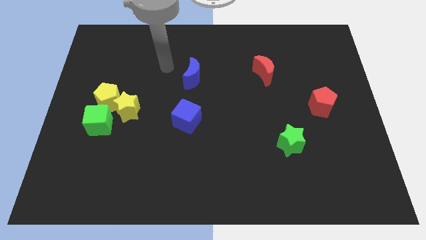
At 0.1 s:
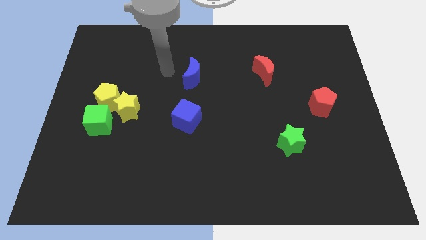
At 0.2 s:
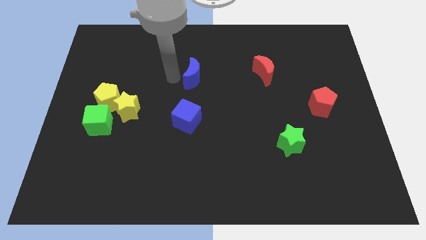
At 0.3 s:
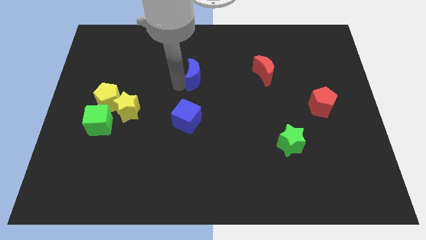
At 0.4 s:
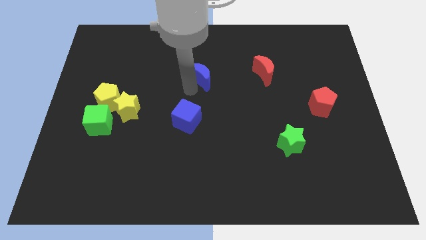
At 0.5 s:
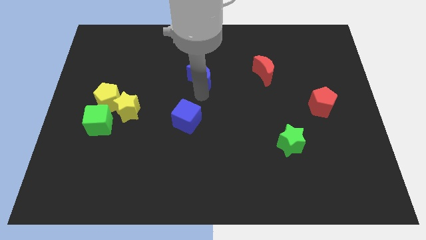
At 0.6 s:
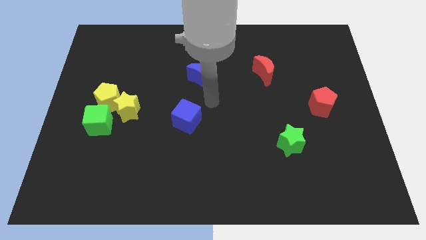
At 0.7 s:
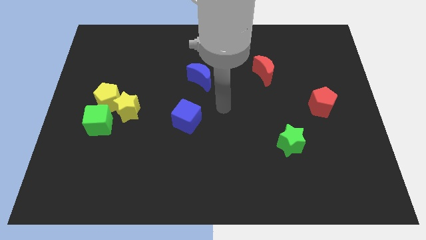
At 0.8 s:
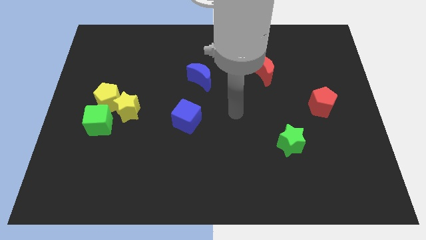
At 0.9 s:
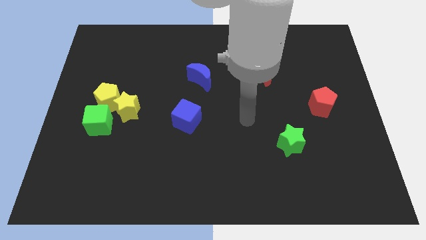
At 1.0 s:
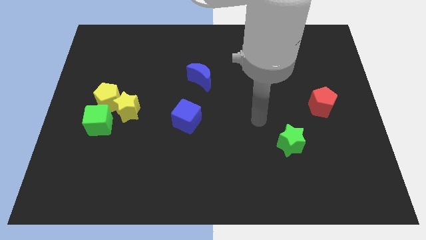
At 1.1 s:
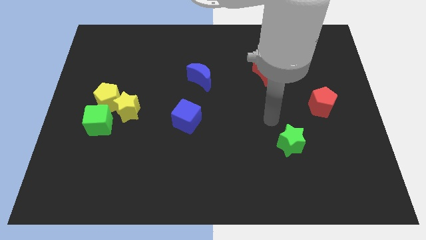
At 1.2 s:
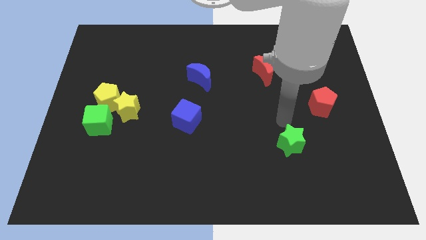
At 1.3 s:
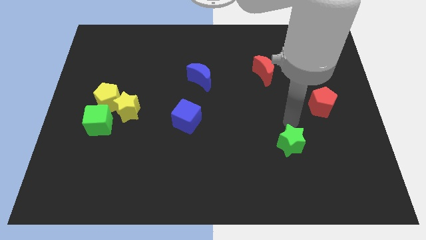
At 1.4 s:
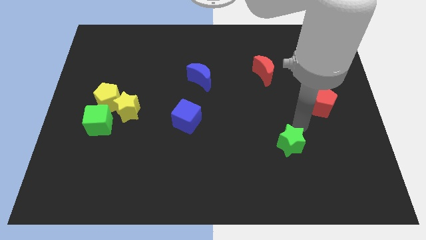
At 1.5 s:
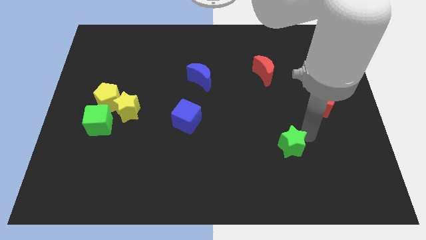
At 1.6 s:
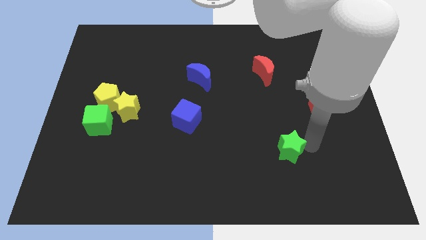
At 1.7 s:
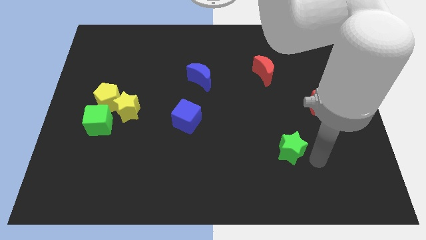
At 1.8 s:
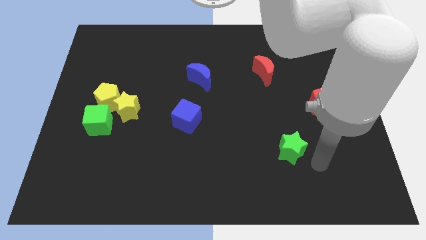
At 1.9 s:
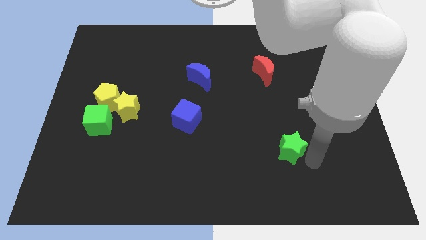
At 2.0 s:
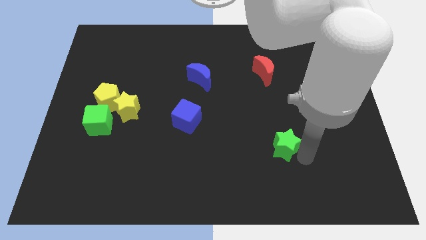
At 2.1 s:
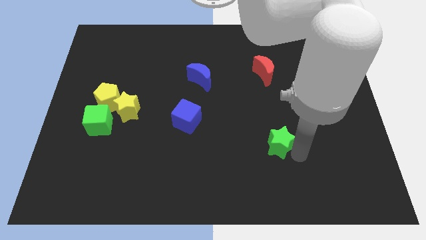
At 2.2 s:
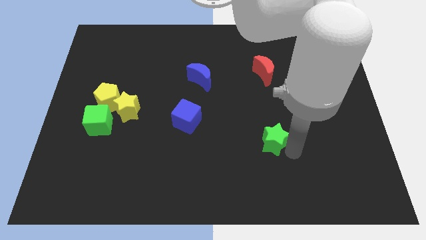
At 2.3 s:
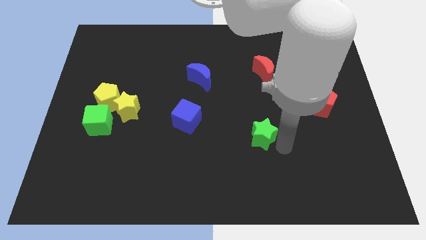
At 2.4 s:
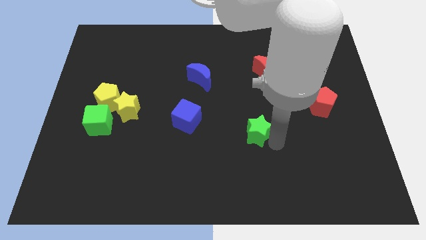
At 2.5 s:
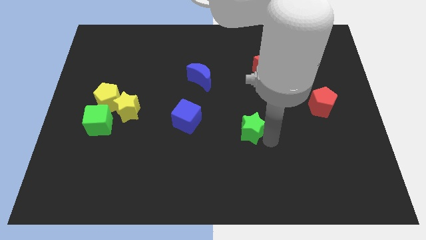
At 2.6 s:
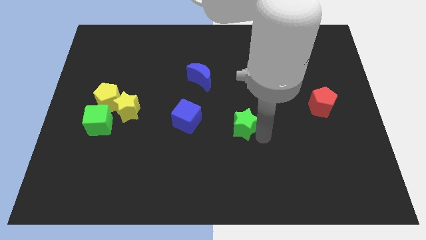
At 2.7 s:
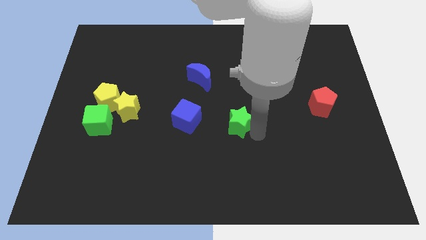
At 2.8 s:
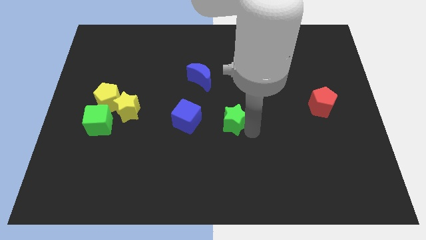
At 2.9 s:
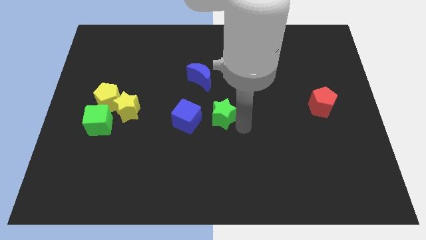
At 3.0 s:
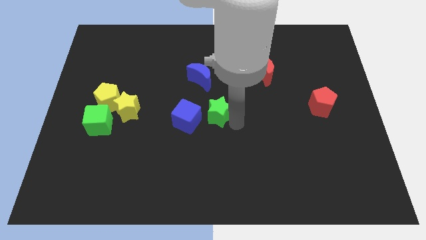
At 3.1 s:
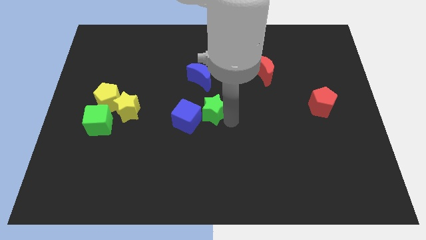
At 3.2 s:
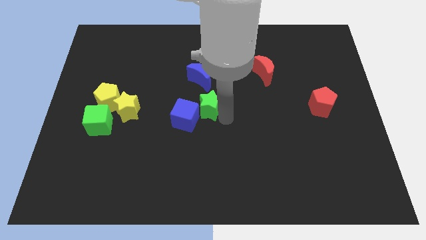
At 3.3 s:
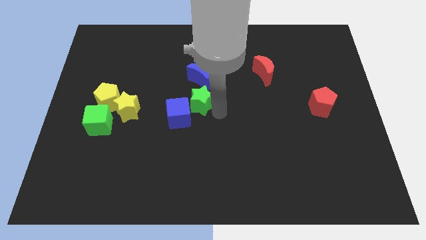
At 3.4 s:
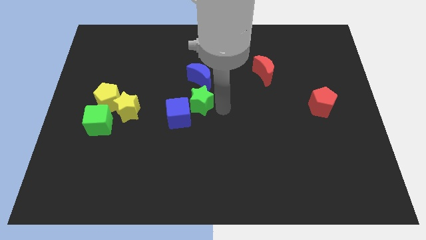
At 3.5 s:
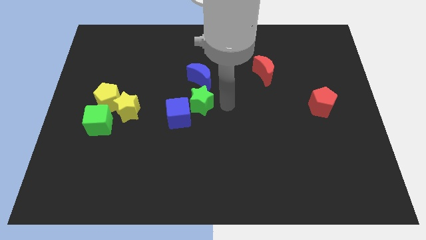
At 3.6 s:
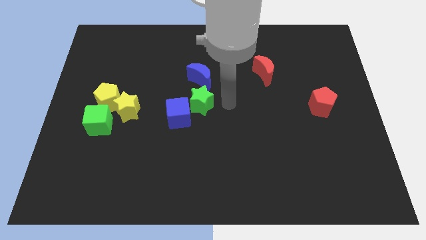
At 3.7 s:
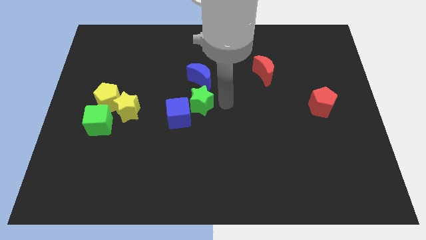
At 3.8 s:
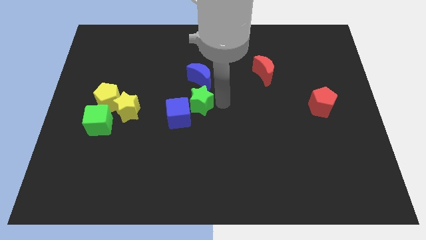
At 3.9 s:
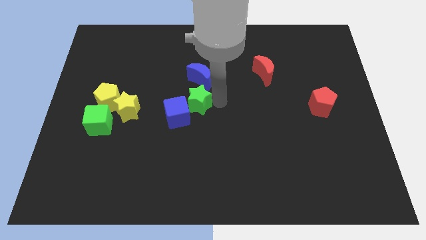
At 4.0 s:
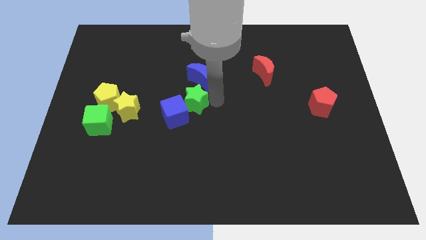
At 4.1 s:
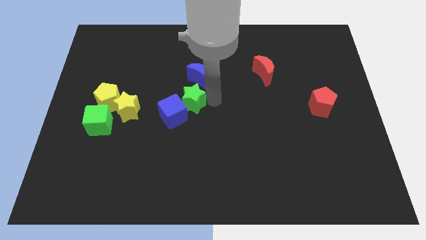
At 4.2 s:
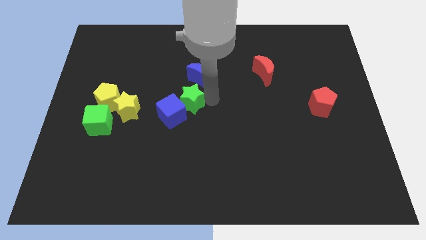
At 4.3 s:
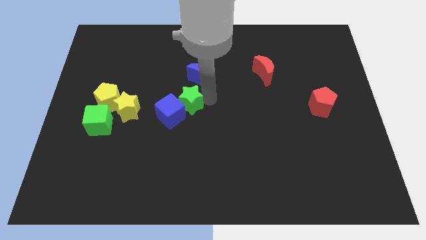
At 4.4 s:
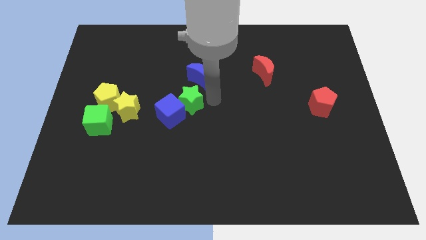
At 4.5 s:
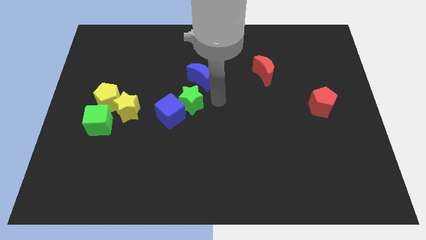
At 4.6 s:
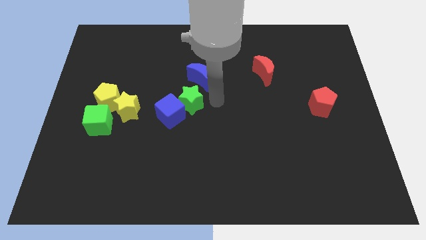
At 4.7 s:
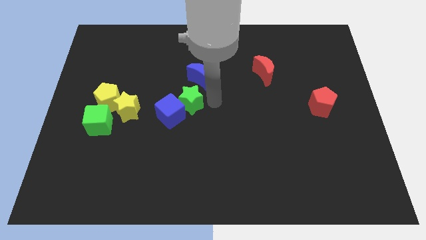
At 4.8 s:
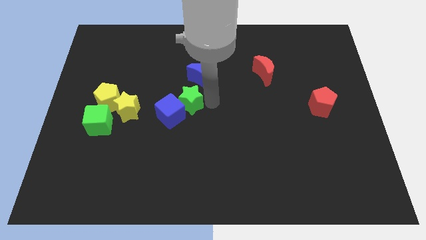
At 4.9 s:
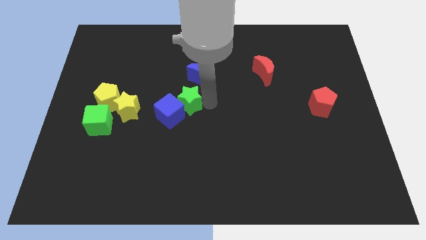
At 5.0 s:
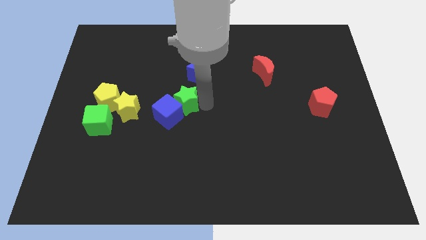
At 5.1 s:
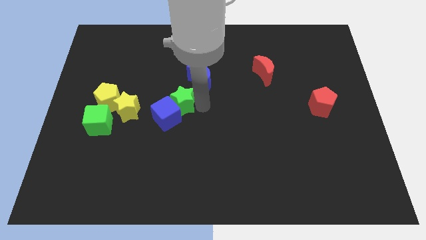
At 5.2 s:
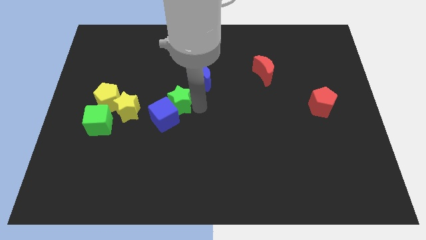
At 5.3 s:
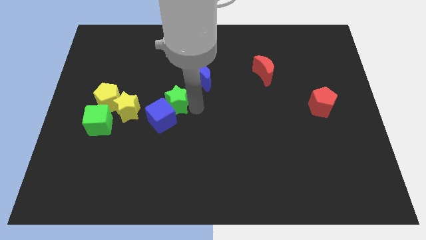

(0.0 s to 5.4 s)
move the green star right of the yellow pentagon
